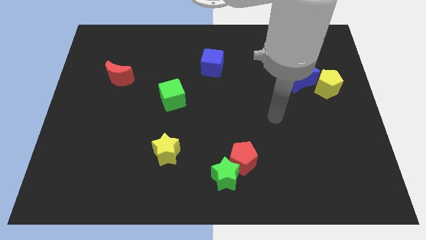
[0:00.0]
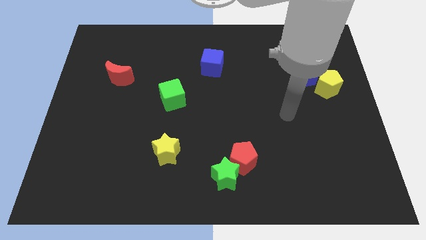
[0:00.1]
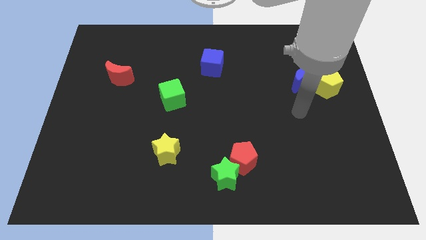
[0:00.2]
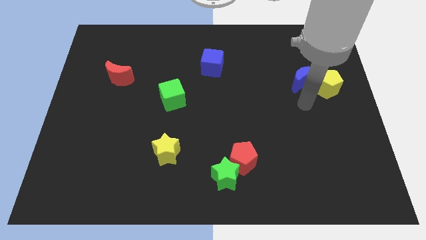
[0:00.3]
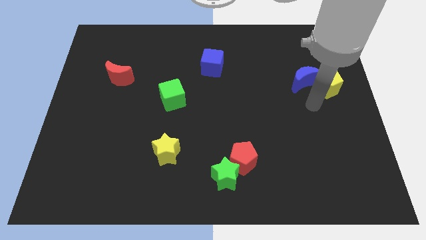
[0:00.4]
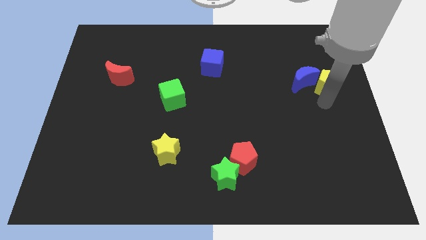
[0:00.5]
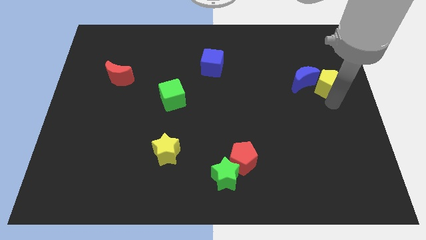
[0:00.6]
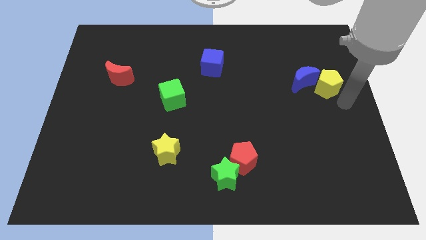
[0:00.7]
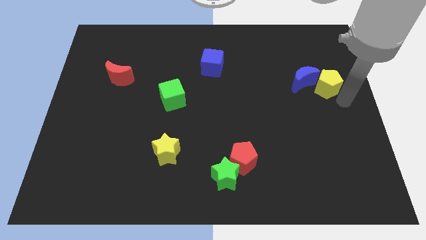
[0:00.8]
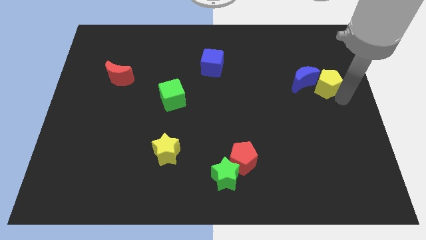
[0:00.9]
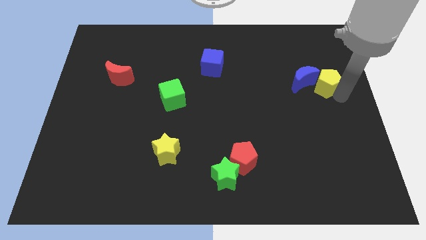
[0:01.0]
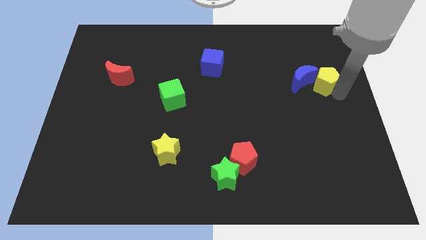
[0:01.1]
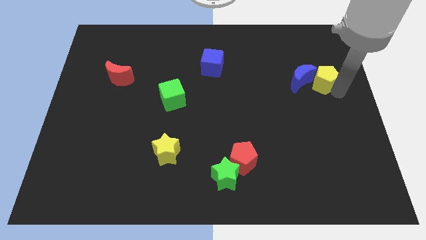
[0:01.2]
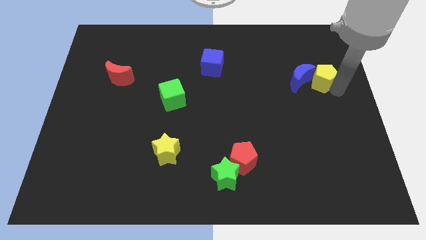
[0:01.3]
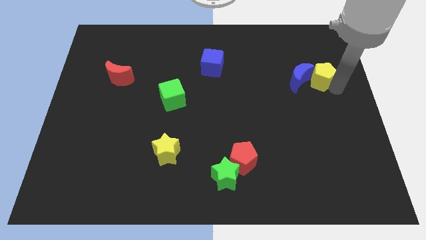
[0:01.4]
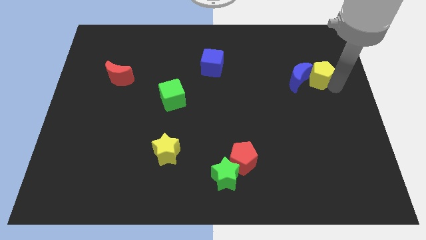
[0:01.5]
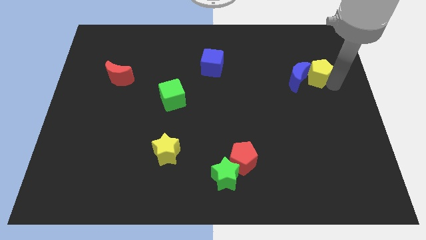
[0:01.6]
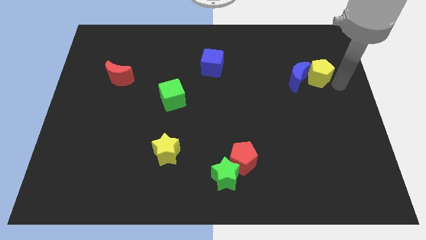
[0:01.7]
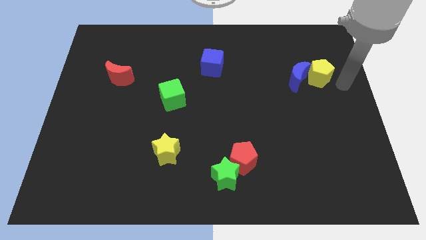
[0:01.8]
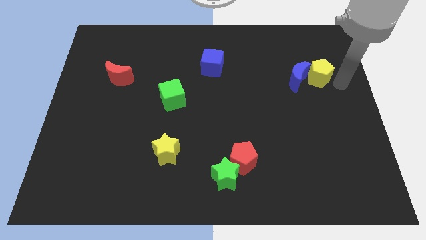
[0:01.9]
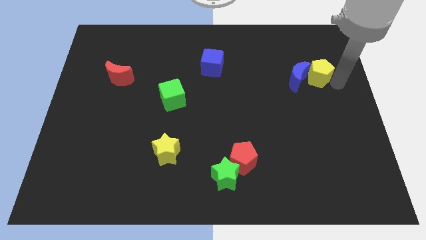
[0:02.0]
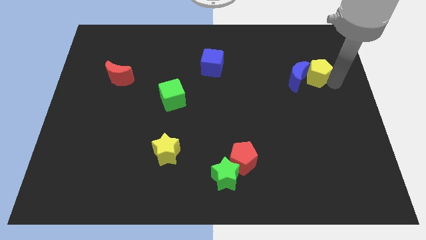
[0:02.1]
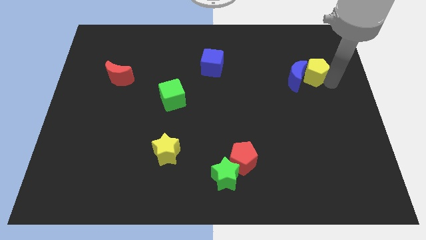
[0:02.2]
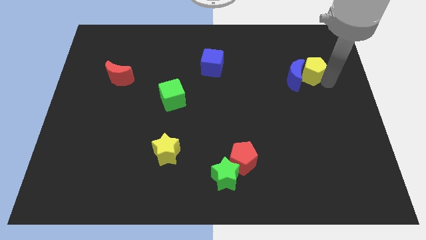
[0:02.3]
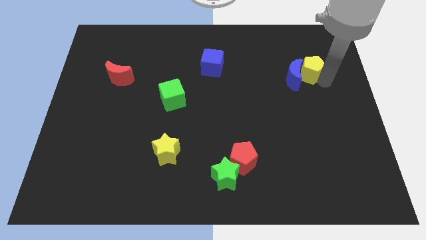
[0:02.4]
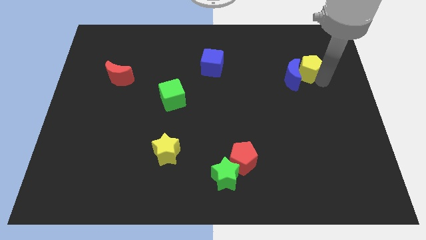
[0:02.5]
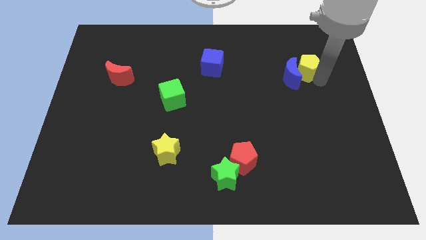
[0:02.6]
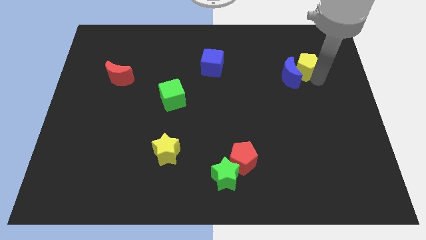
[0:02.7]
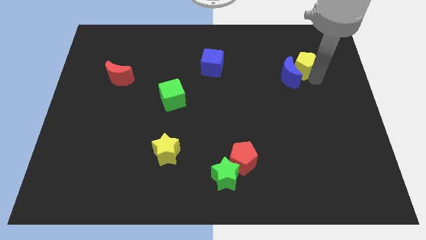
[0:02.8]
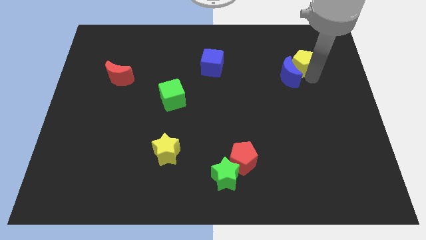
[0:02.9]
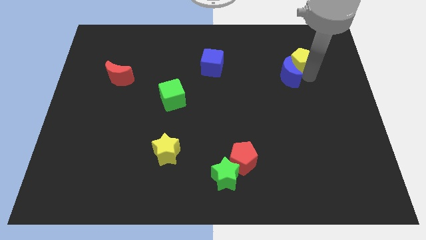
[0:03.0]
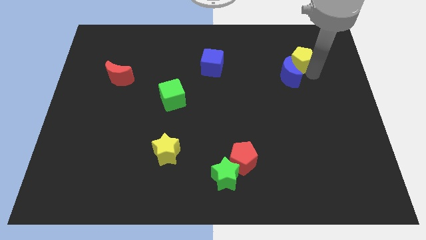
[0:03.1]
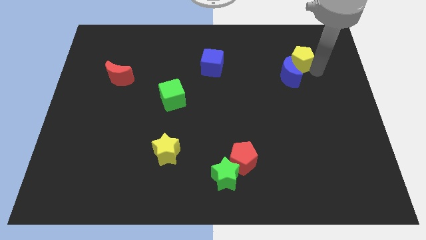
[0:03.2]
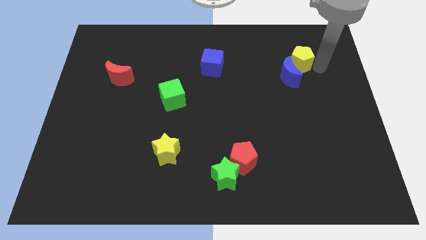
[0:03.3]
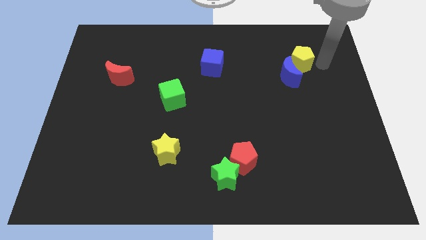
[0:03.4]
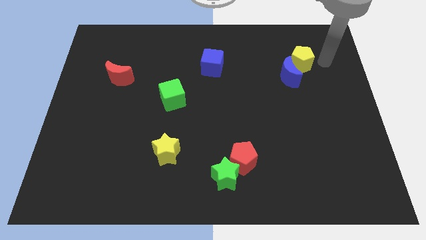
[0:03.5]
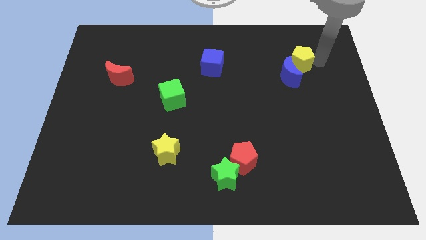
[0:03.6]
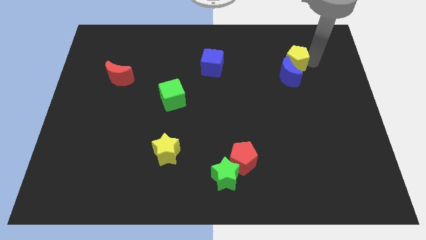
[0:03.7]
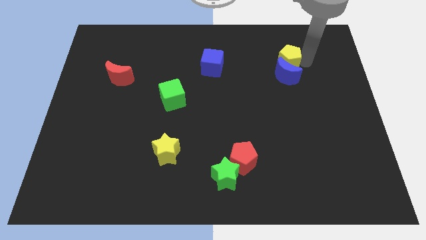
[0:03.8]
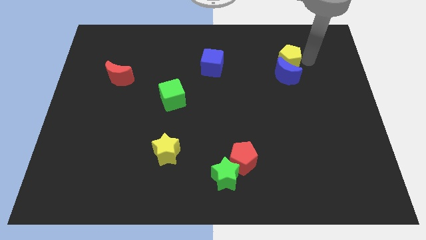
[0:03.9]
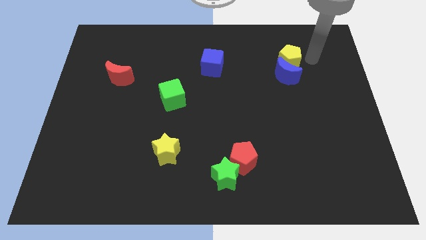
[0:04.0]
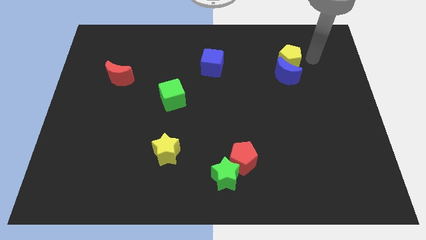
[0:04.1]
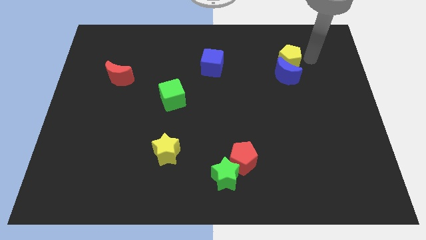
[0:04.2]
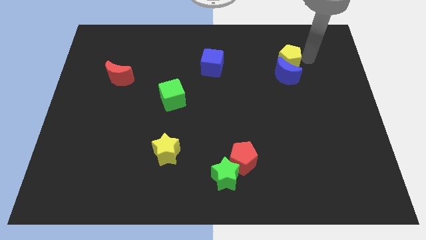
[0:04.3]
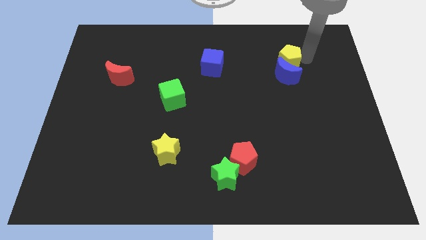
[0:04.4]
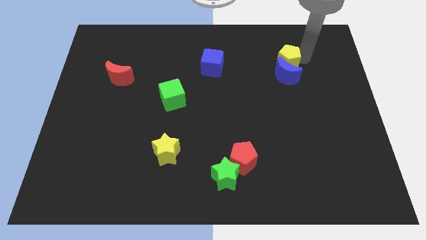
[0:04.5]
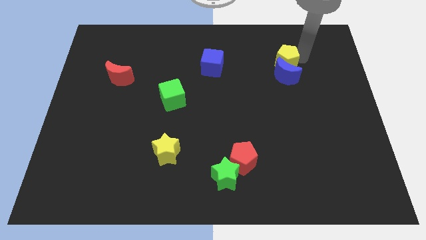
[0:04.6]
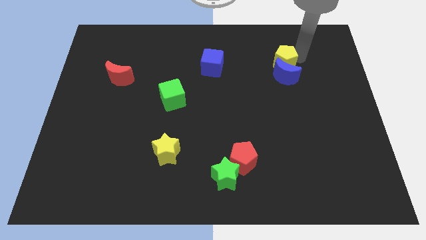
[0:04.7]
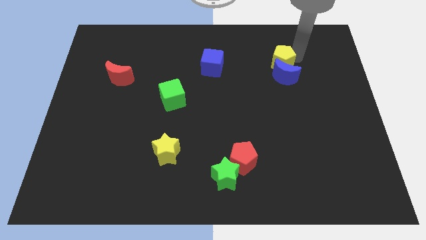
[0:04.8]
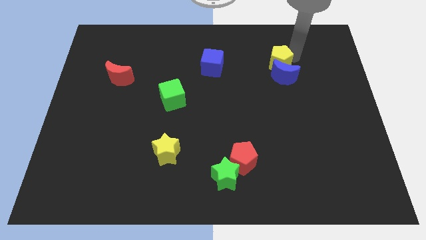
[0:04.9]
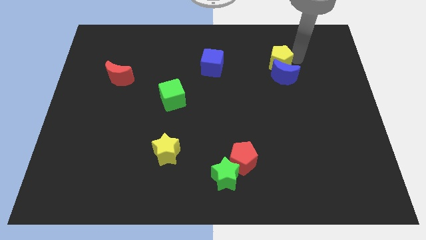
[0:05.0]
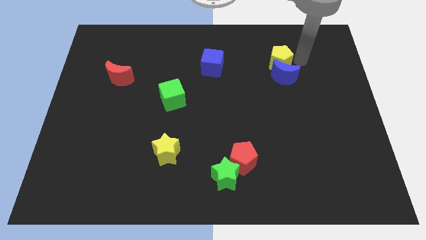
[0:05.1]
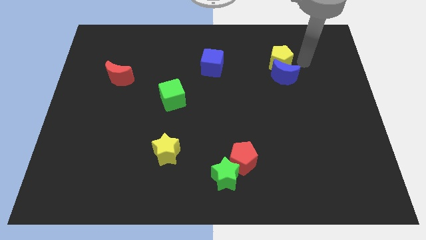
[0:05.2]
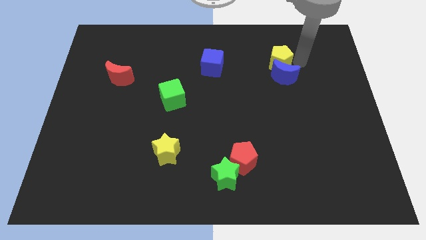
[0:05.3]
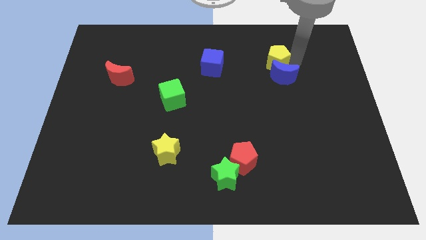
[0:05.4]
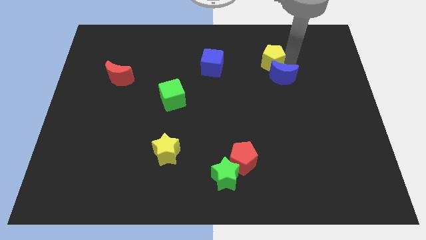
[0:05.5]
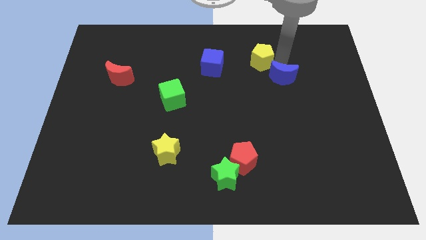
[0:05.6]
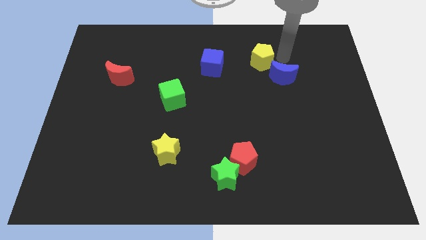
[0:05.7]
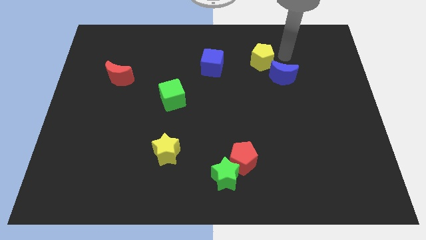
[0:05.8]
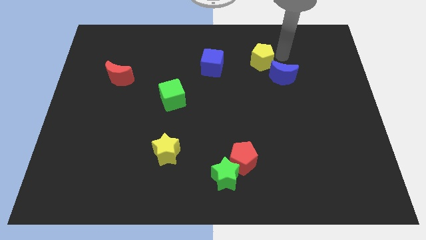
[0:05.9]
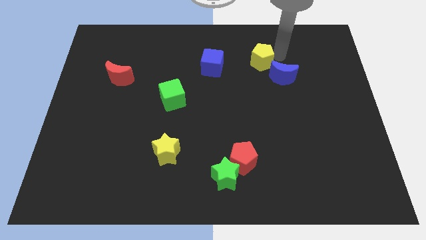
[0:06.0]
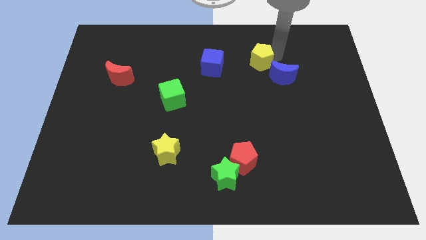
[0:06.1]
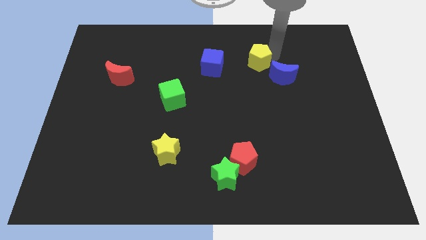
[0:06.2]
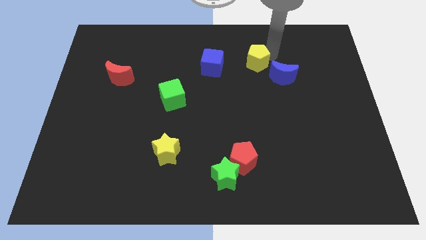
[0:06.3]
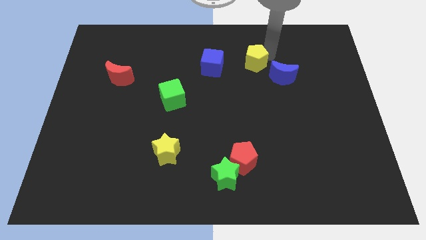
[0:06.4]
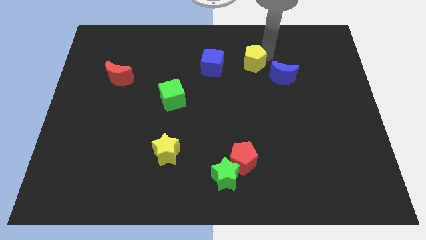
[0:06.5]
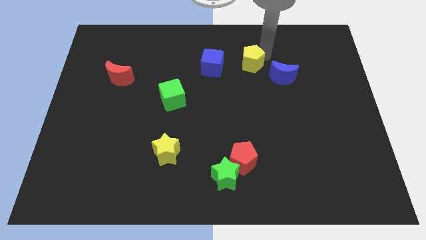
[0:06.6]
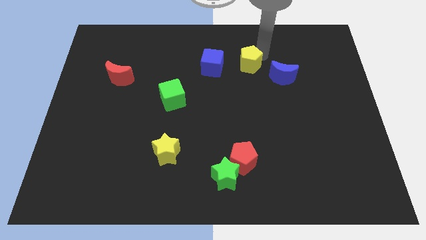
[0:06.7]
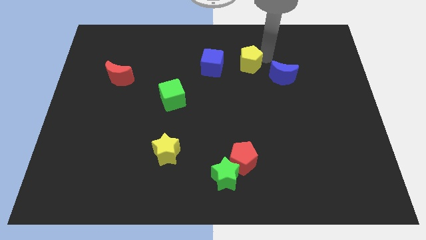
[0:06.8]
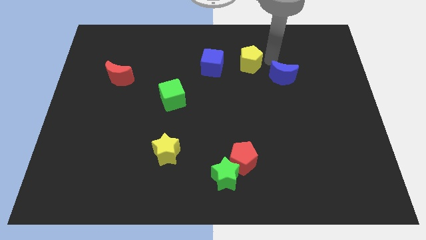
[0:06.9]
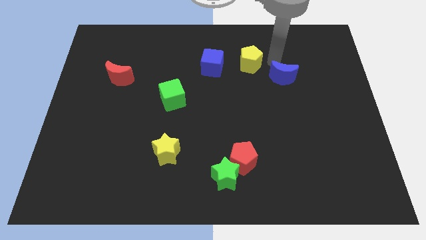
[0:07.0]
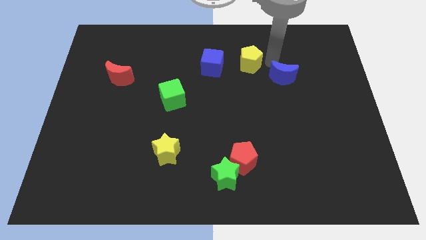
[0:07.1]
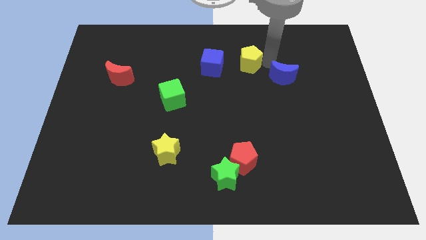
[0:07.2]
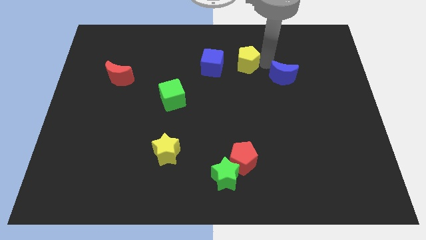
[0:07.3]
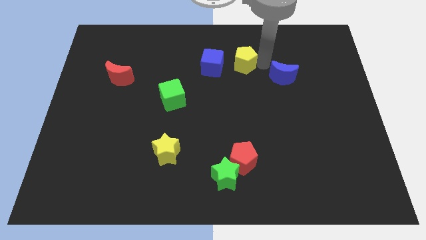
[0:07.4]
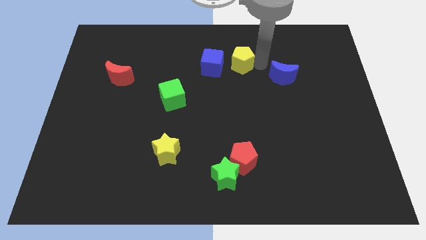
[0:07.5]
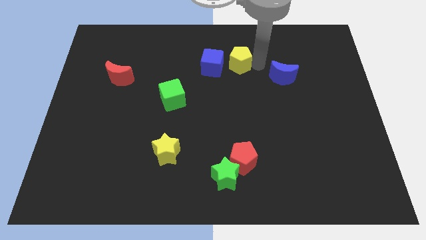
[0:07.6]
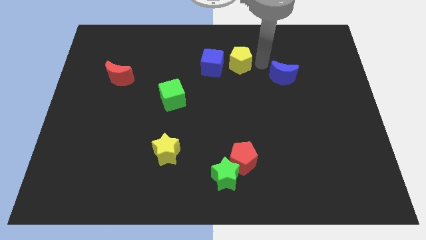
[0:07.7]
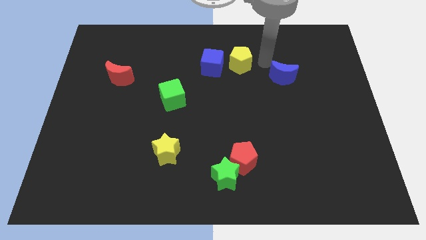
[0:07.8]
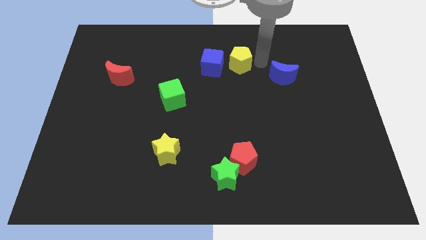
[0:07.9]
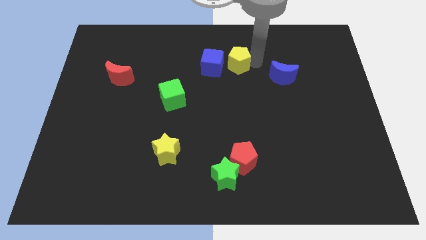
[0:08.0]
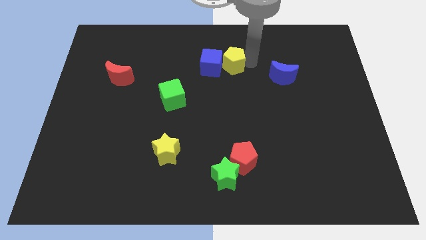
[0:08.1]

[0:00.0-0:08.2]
slide the yellow pentagon to the blue cube
